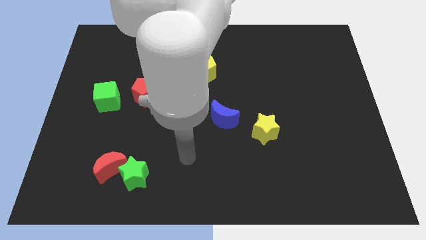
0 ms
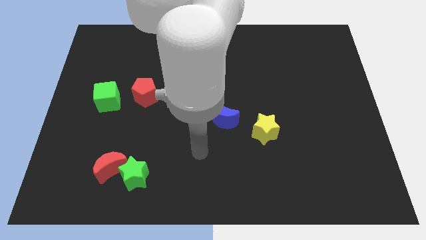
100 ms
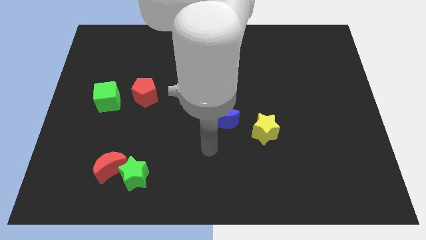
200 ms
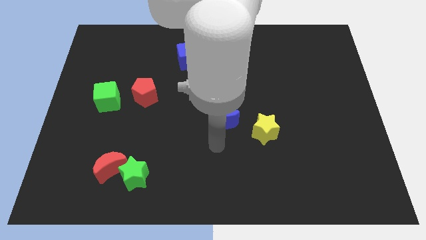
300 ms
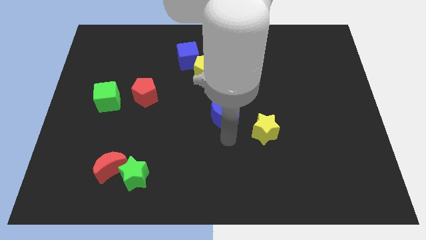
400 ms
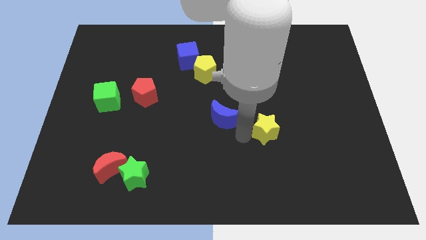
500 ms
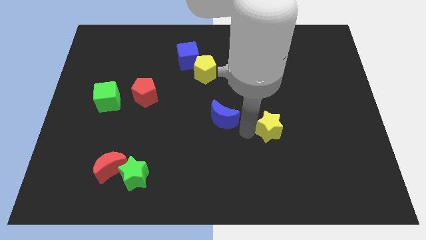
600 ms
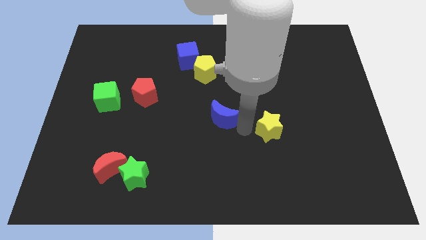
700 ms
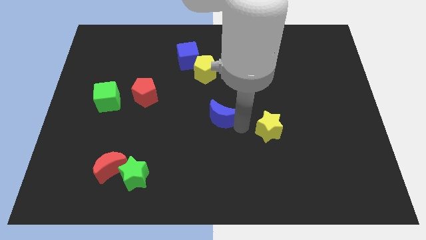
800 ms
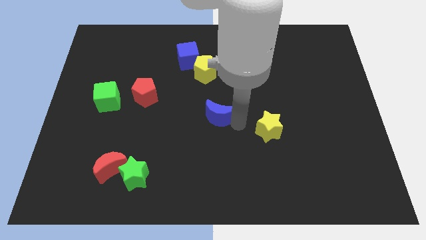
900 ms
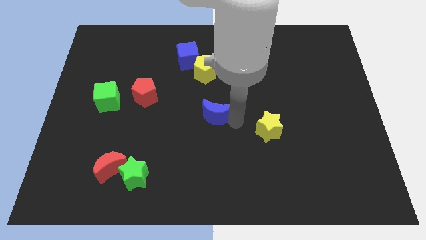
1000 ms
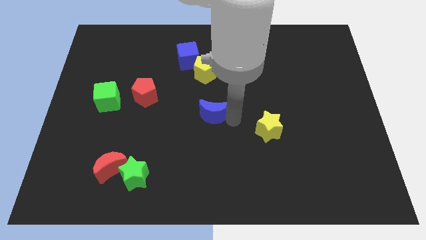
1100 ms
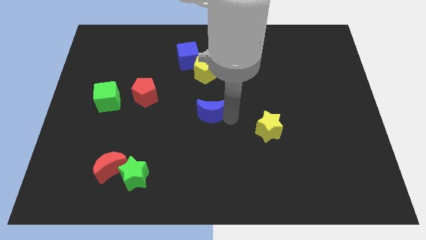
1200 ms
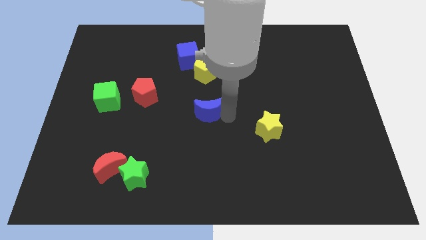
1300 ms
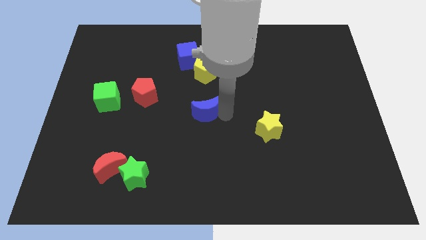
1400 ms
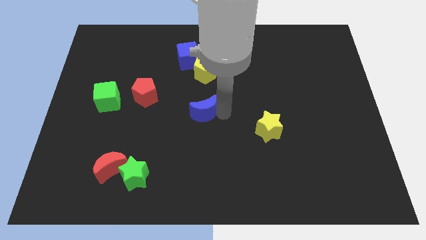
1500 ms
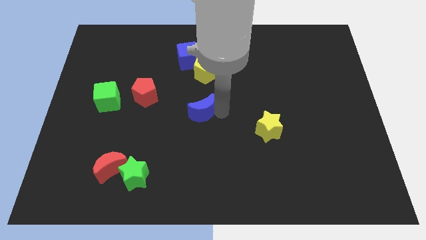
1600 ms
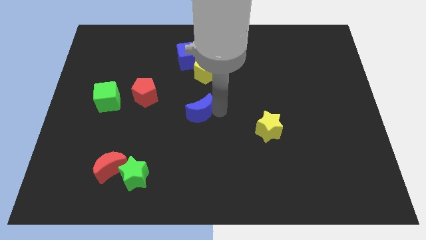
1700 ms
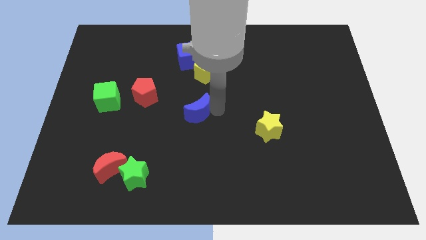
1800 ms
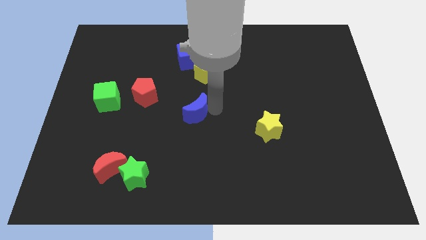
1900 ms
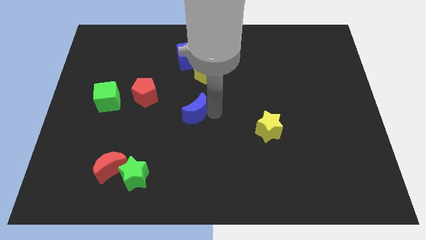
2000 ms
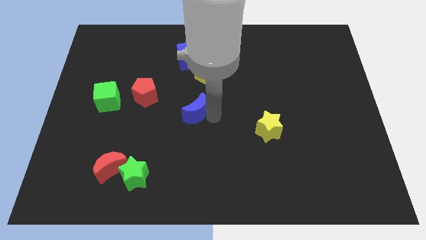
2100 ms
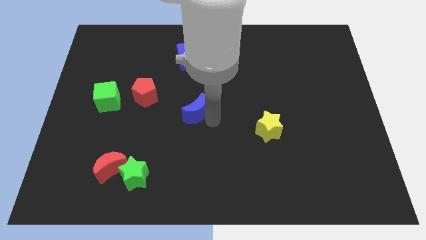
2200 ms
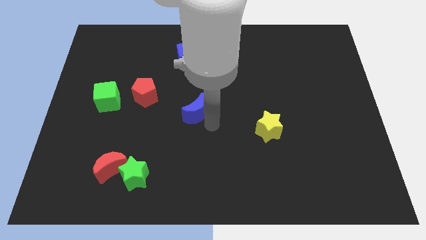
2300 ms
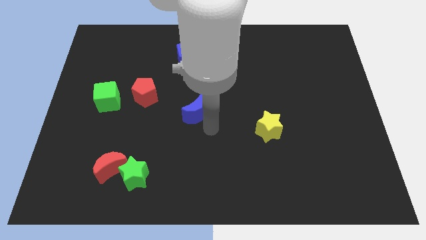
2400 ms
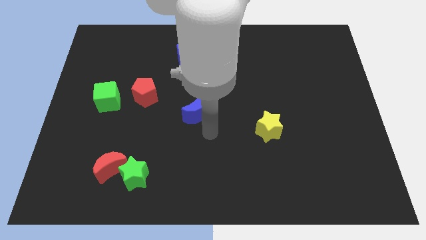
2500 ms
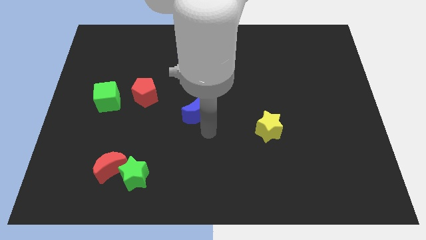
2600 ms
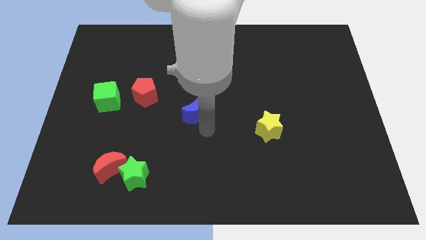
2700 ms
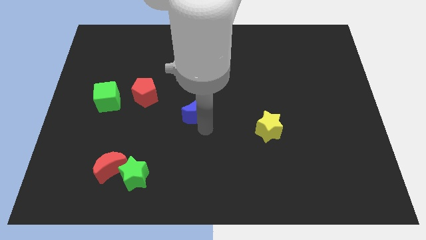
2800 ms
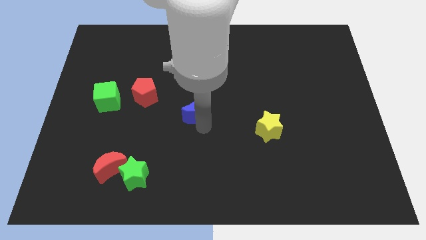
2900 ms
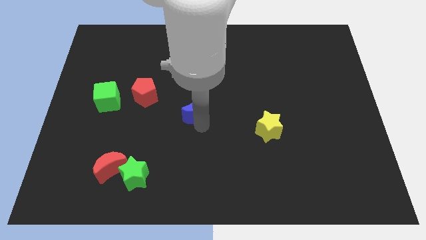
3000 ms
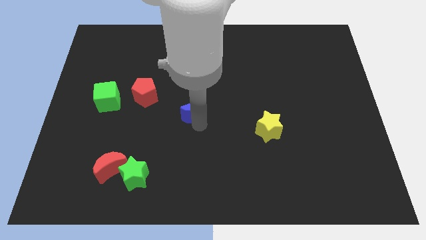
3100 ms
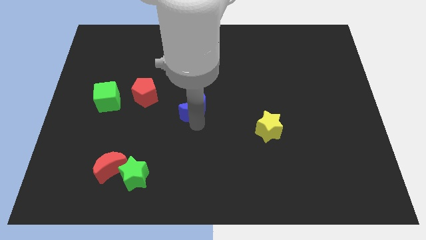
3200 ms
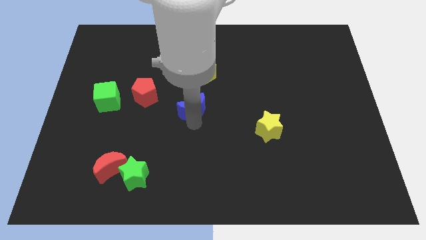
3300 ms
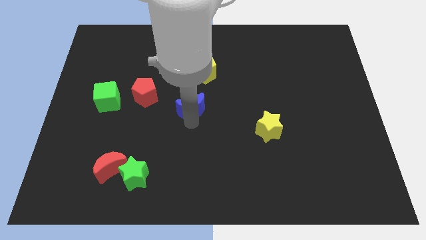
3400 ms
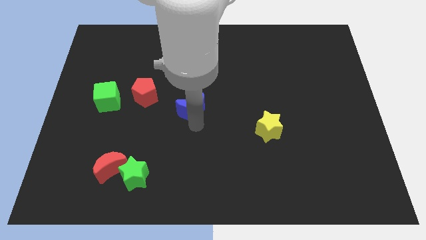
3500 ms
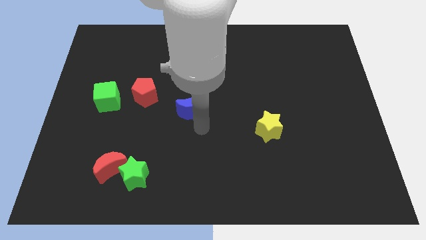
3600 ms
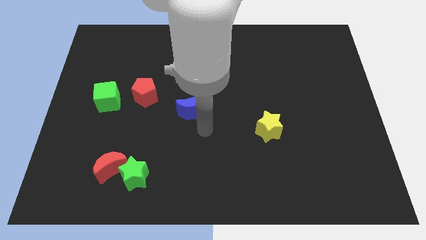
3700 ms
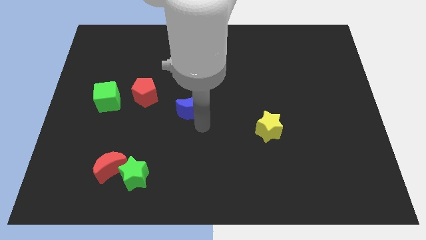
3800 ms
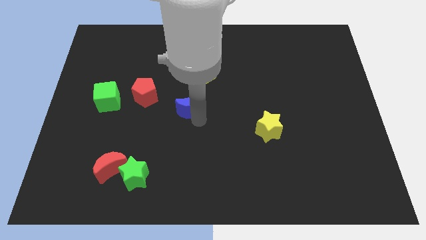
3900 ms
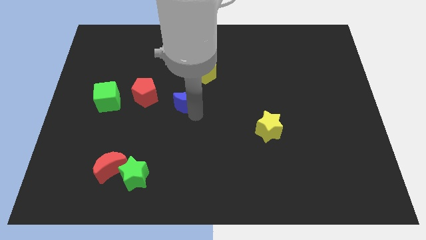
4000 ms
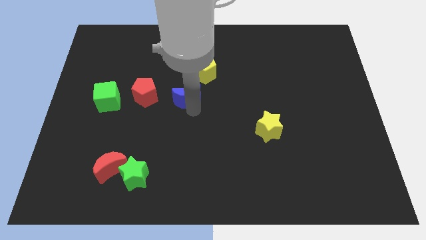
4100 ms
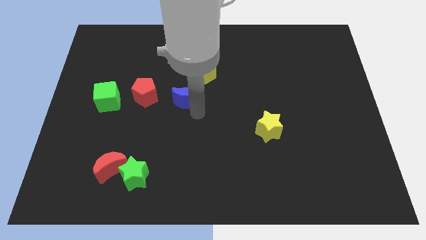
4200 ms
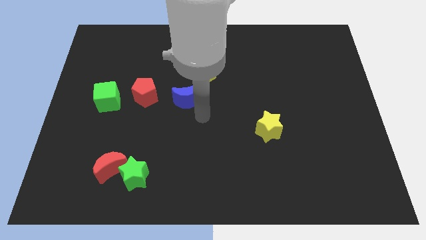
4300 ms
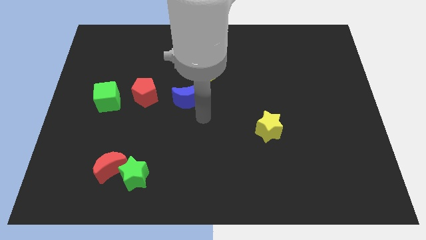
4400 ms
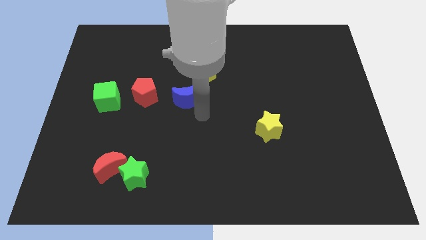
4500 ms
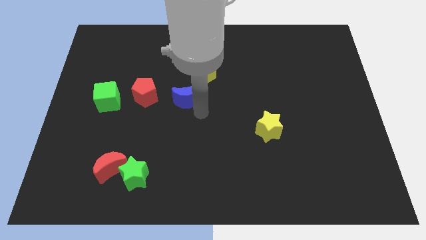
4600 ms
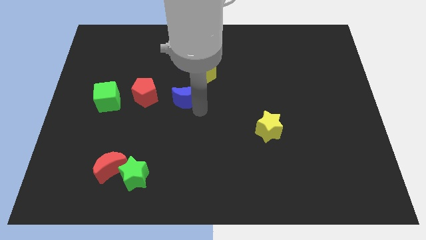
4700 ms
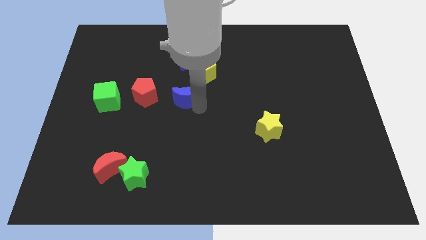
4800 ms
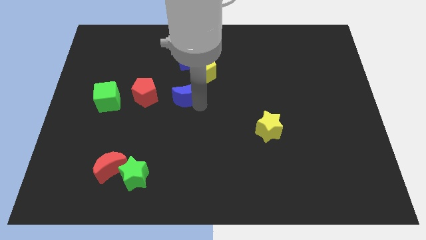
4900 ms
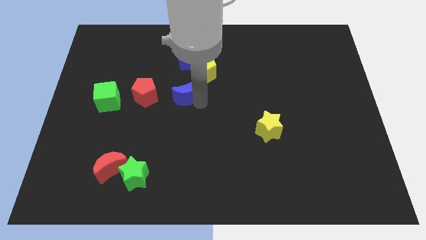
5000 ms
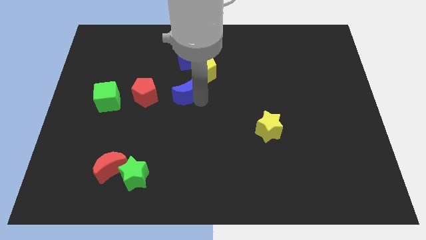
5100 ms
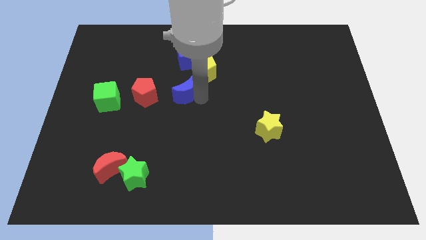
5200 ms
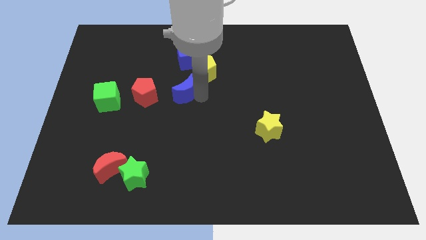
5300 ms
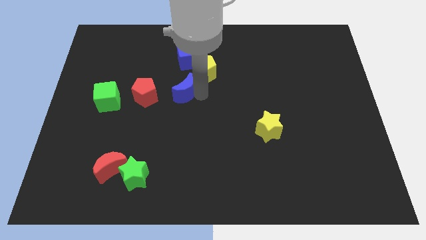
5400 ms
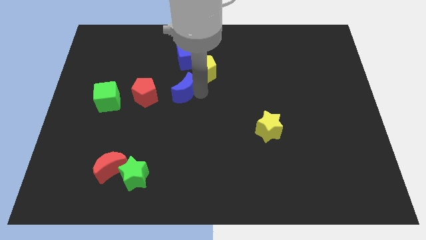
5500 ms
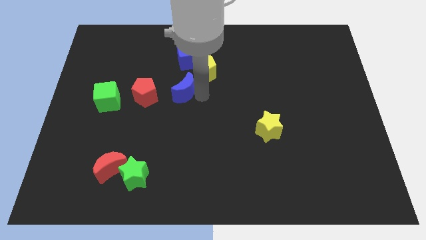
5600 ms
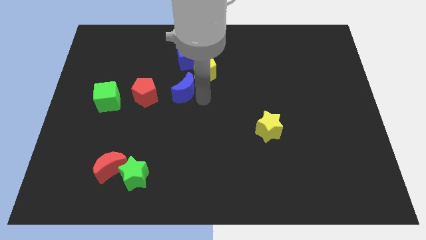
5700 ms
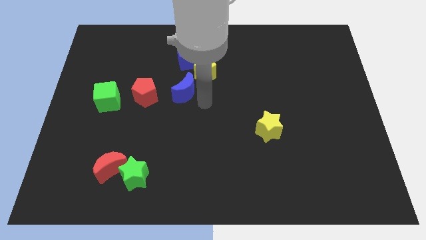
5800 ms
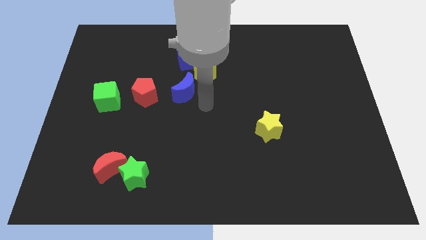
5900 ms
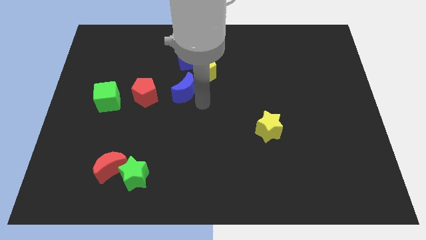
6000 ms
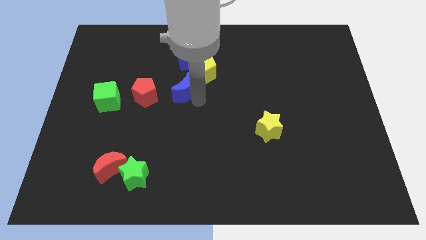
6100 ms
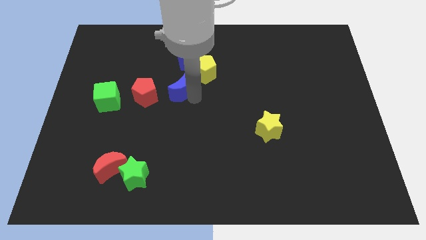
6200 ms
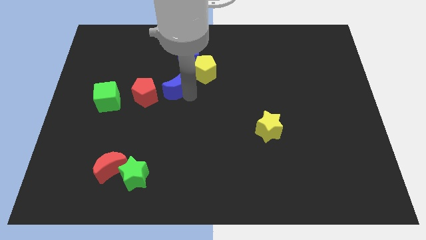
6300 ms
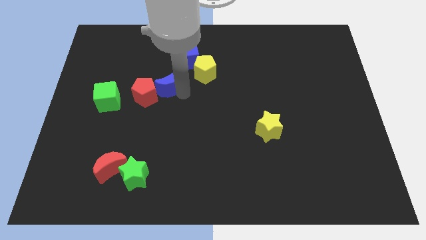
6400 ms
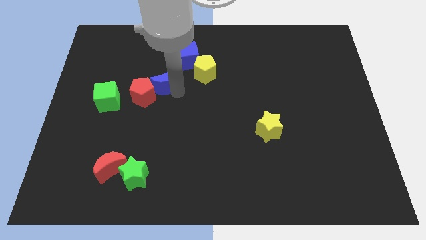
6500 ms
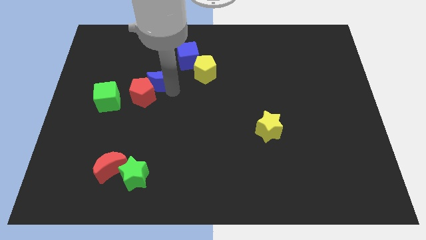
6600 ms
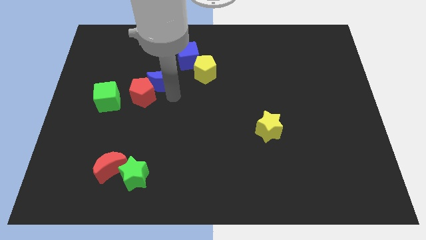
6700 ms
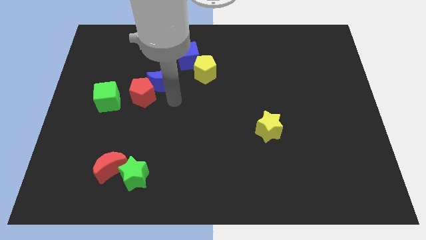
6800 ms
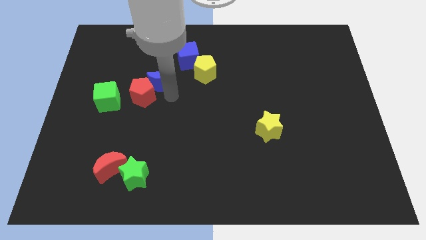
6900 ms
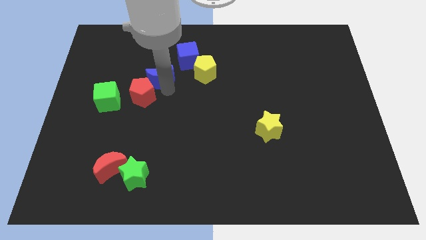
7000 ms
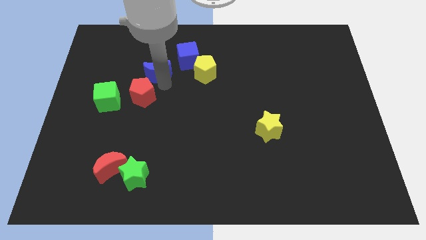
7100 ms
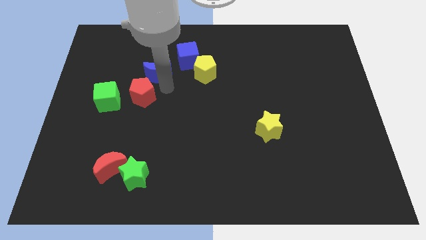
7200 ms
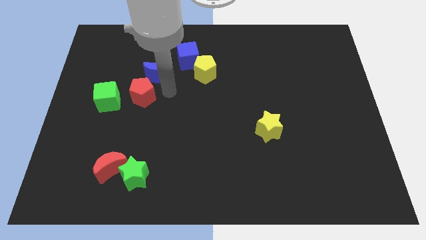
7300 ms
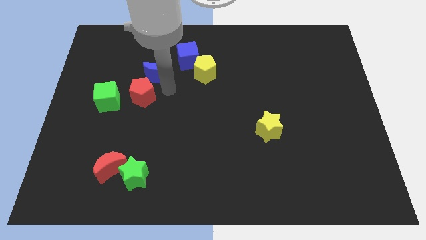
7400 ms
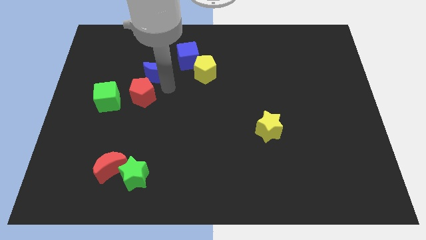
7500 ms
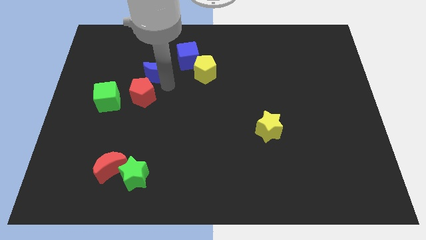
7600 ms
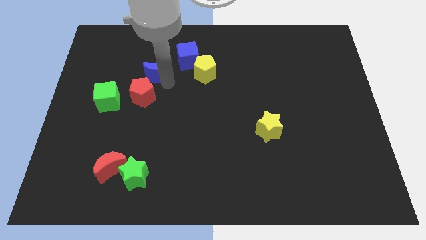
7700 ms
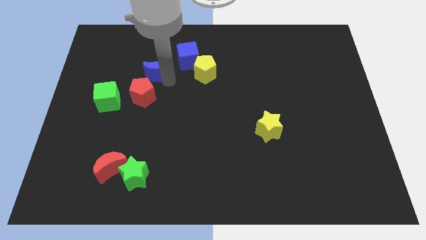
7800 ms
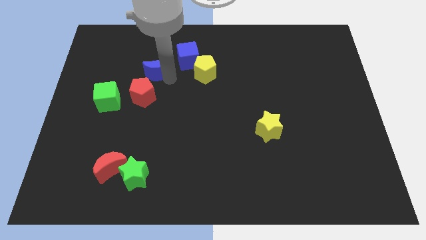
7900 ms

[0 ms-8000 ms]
slide the blue moon left of the blue cube
